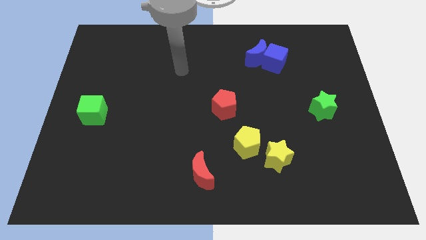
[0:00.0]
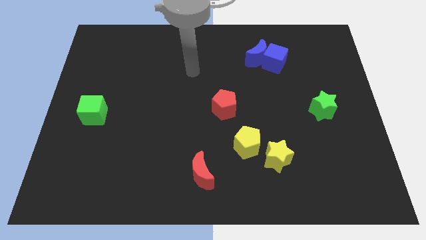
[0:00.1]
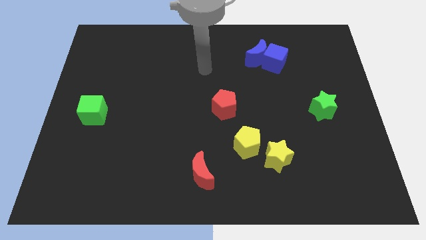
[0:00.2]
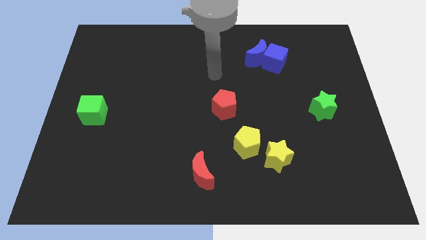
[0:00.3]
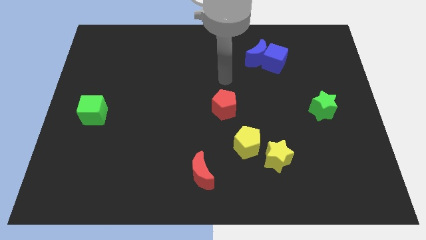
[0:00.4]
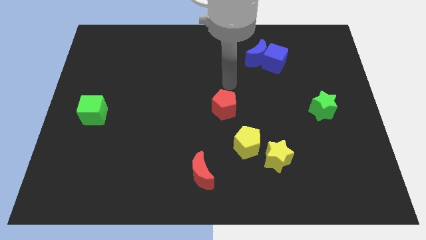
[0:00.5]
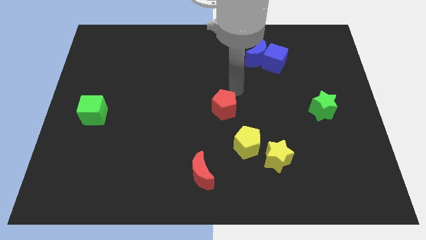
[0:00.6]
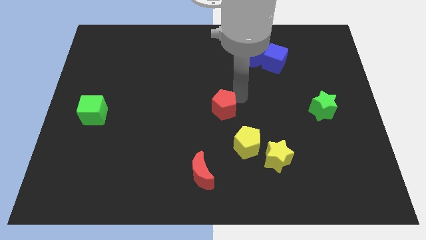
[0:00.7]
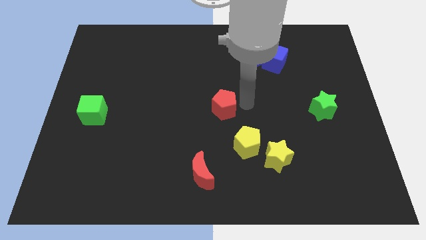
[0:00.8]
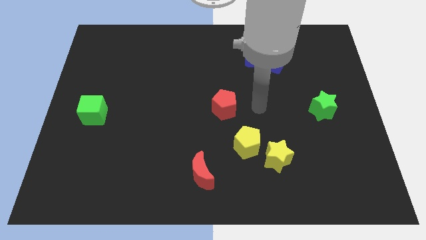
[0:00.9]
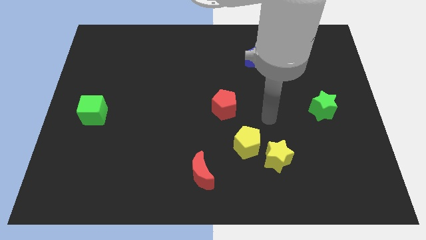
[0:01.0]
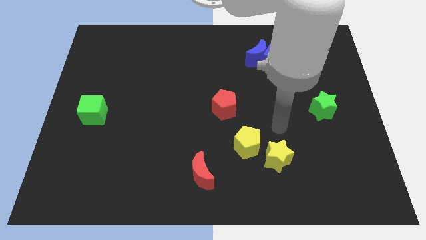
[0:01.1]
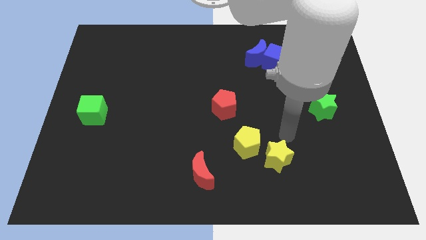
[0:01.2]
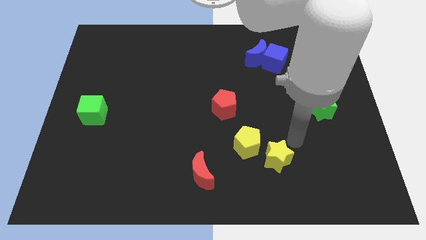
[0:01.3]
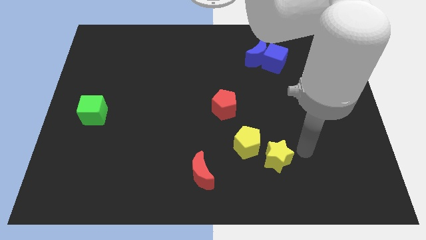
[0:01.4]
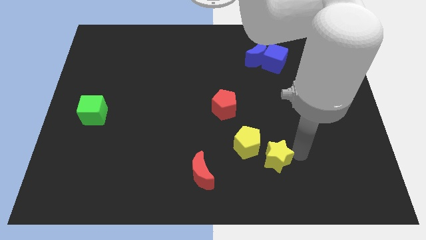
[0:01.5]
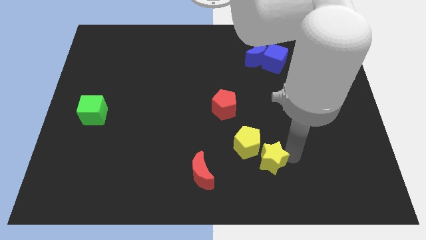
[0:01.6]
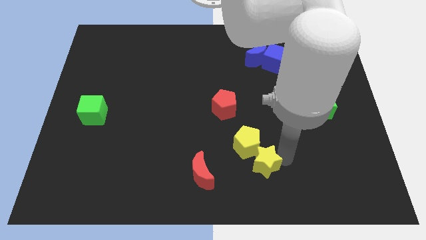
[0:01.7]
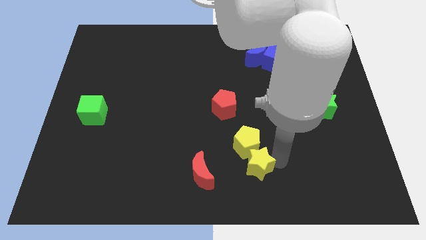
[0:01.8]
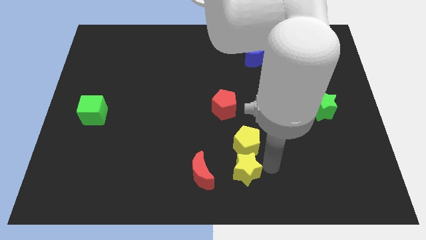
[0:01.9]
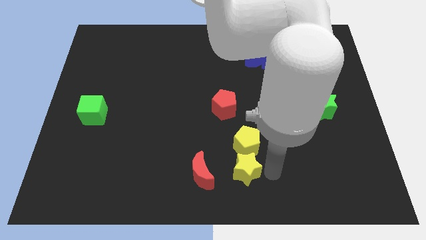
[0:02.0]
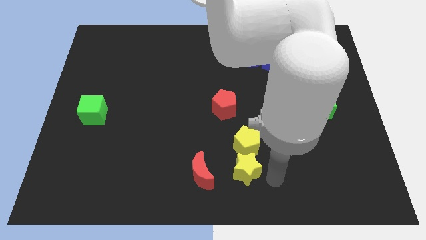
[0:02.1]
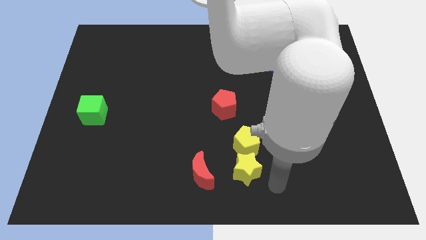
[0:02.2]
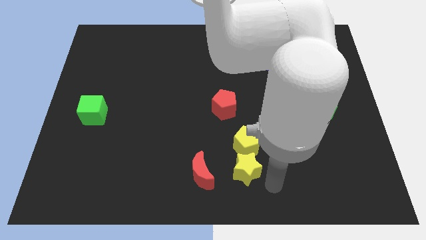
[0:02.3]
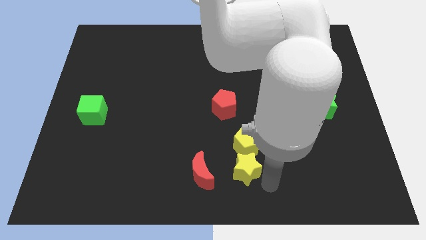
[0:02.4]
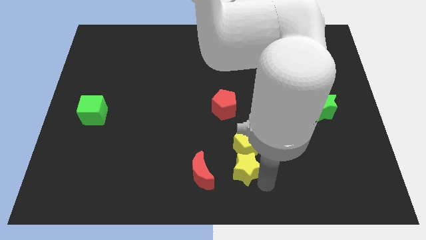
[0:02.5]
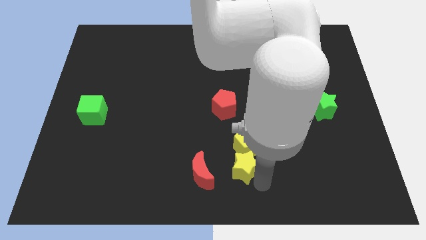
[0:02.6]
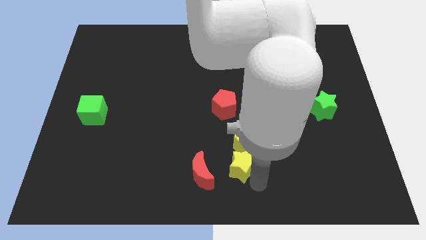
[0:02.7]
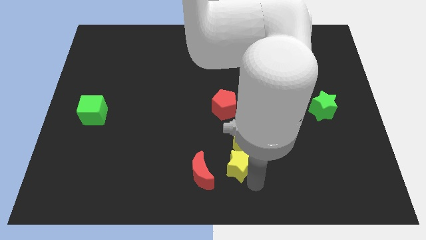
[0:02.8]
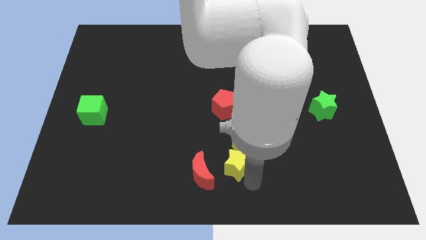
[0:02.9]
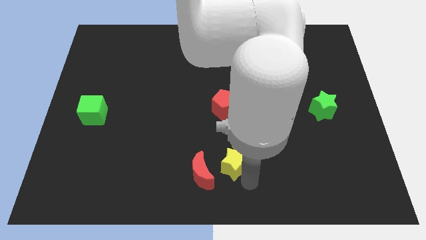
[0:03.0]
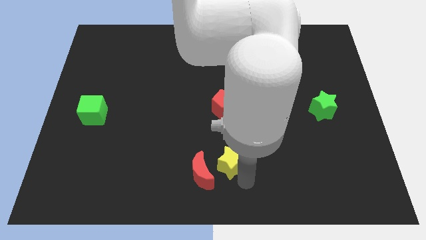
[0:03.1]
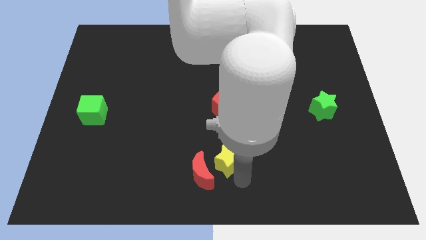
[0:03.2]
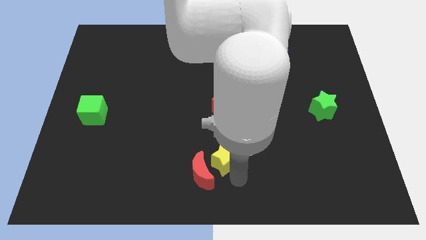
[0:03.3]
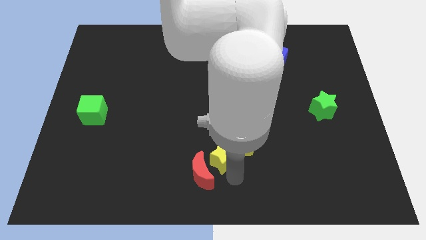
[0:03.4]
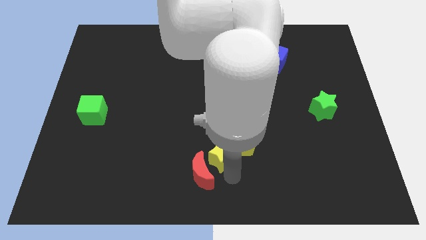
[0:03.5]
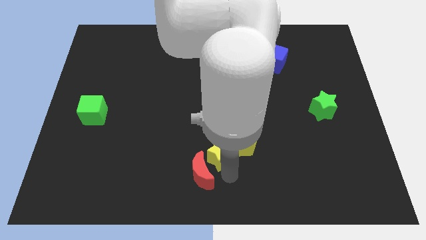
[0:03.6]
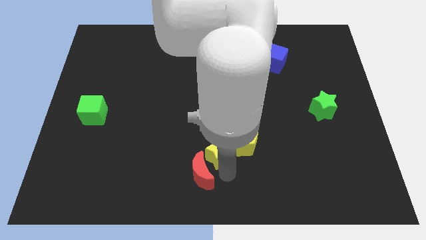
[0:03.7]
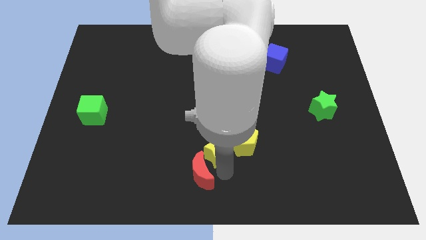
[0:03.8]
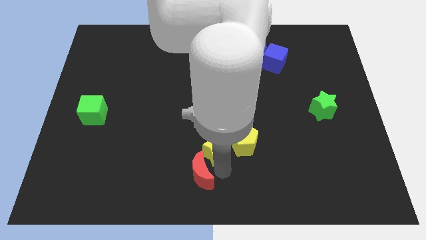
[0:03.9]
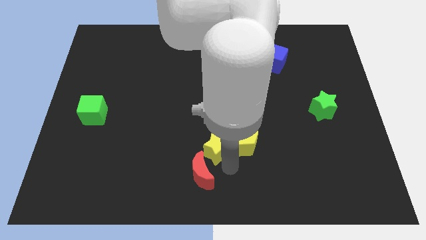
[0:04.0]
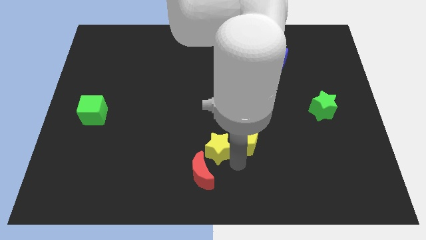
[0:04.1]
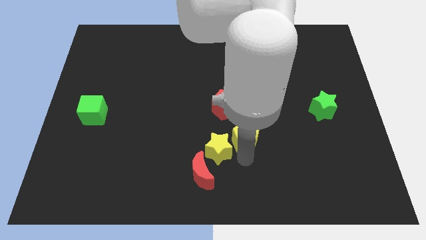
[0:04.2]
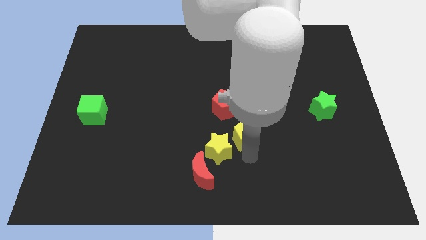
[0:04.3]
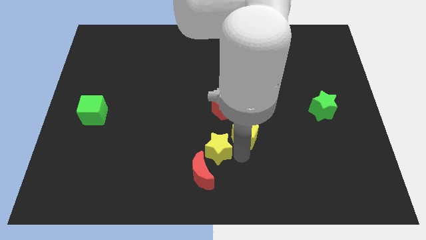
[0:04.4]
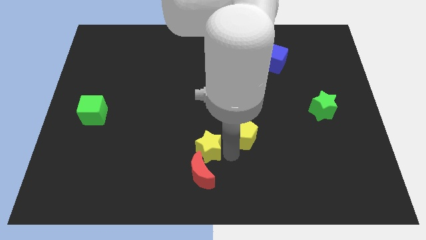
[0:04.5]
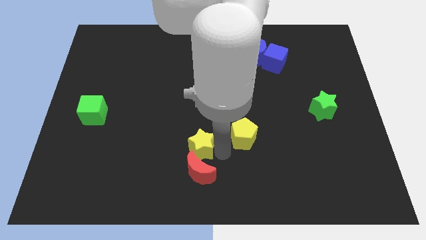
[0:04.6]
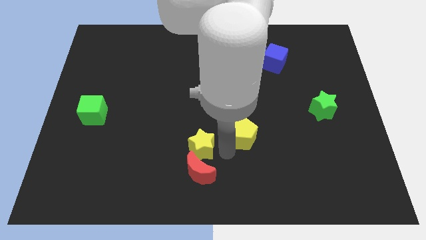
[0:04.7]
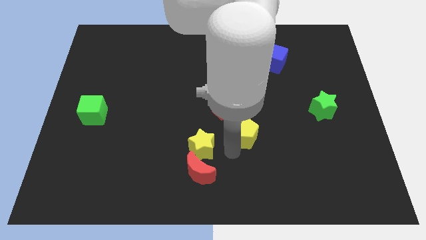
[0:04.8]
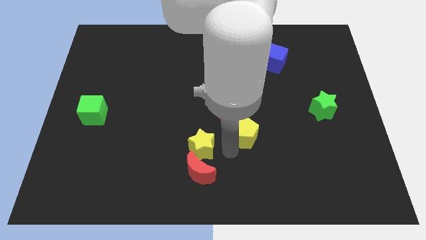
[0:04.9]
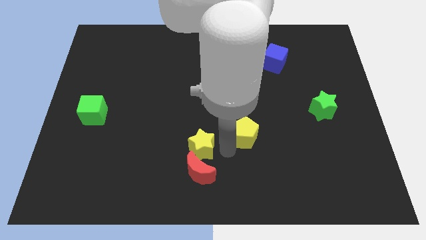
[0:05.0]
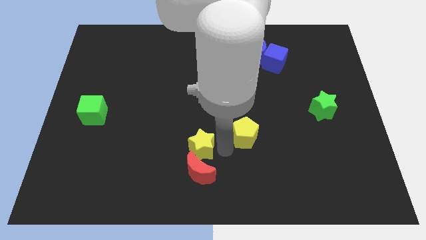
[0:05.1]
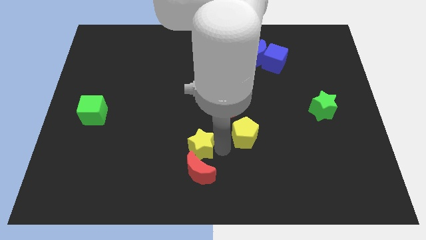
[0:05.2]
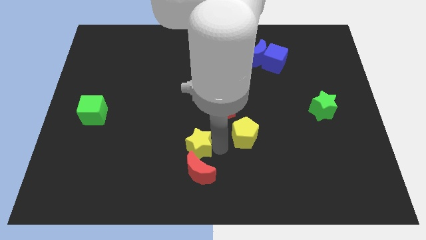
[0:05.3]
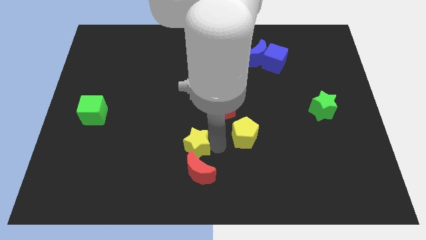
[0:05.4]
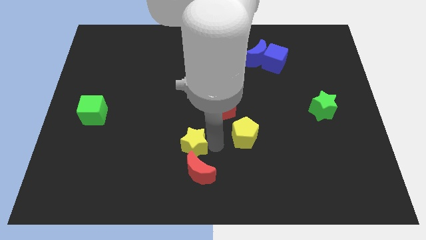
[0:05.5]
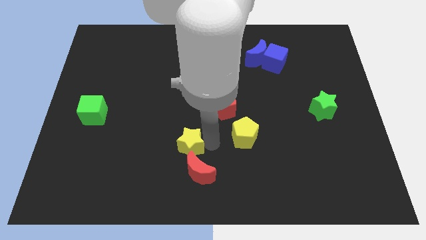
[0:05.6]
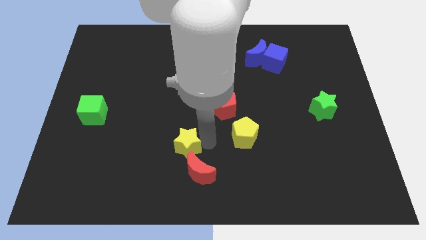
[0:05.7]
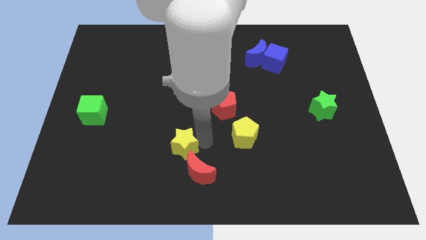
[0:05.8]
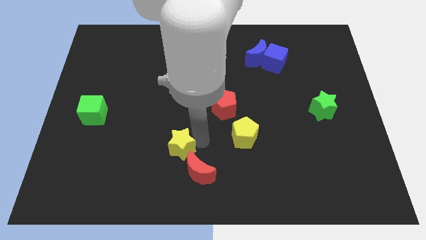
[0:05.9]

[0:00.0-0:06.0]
move the yellow star to the left

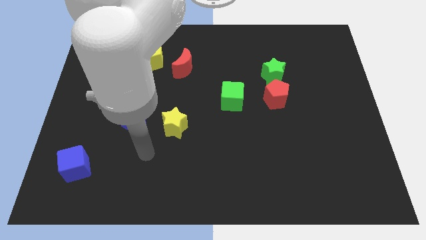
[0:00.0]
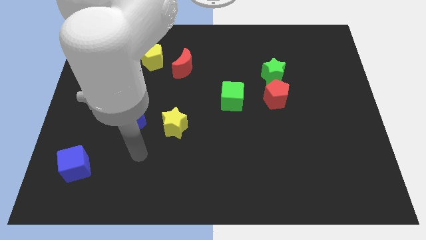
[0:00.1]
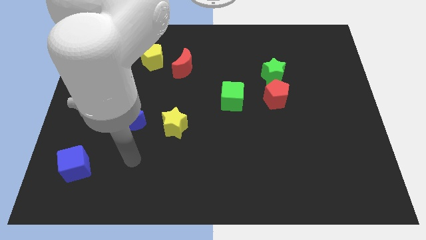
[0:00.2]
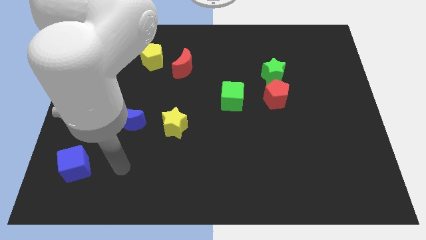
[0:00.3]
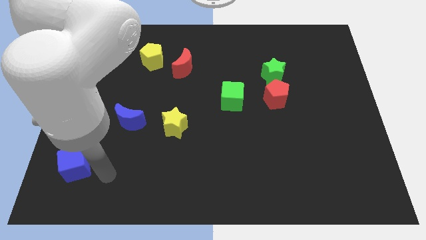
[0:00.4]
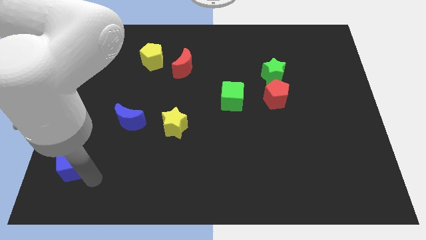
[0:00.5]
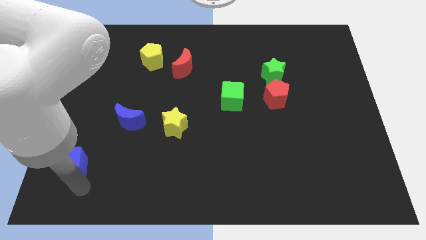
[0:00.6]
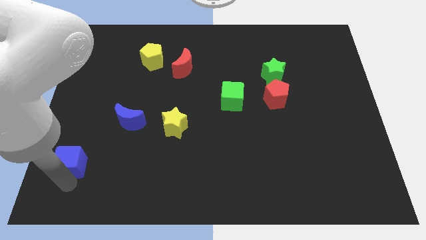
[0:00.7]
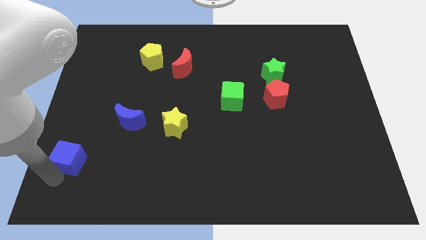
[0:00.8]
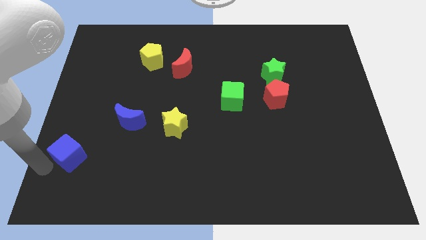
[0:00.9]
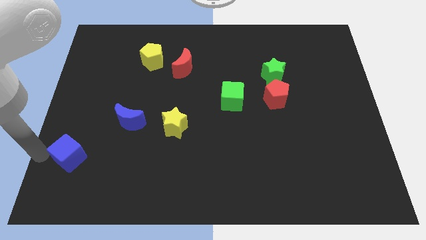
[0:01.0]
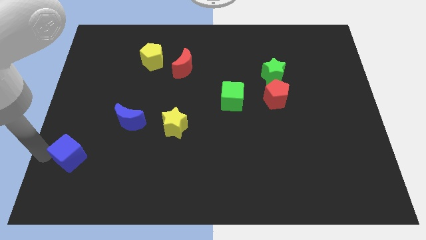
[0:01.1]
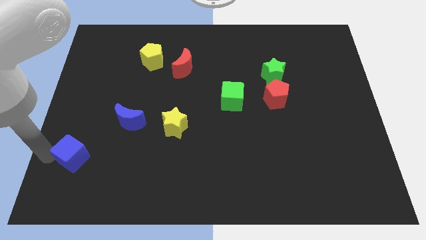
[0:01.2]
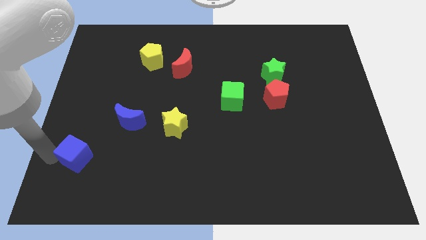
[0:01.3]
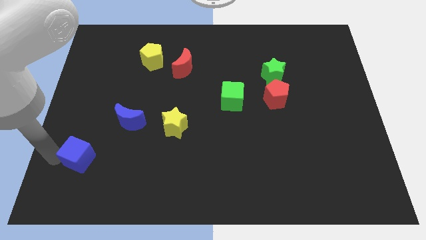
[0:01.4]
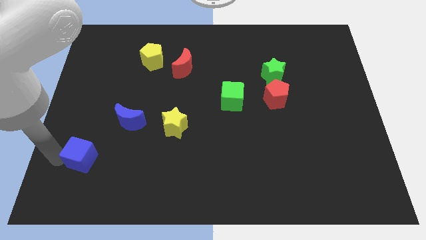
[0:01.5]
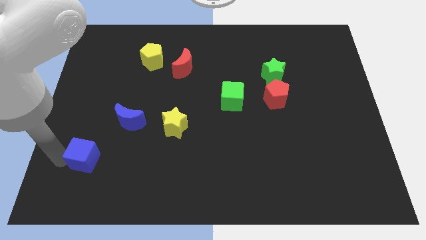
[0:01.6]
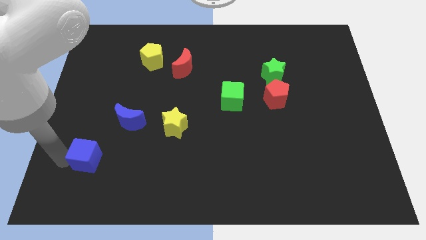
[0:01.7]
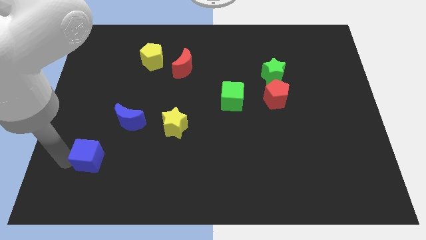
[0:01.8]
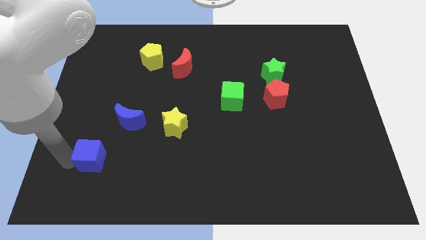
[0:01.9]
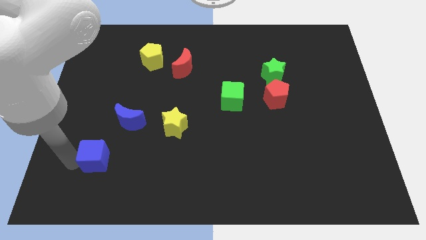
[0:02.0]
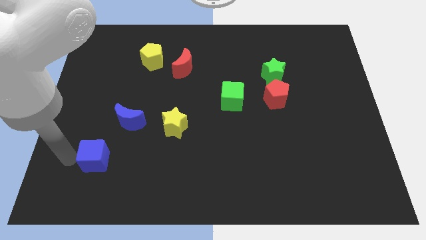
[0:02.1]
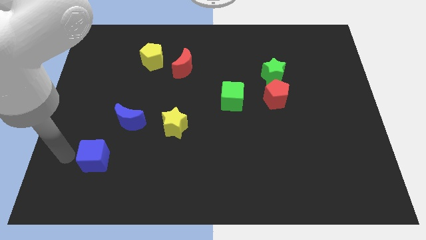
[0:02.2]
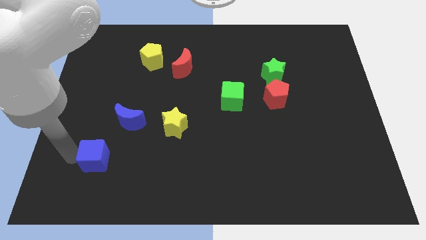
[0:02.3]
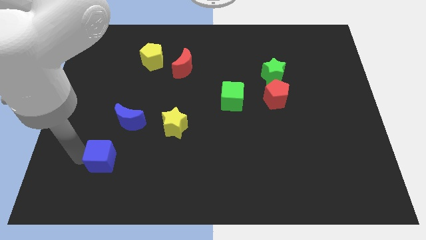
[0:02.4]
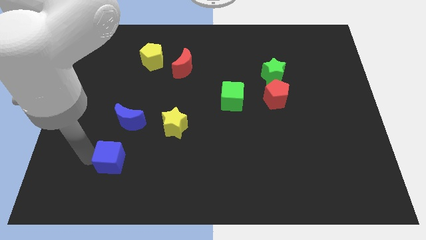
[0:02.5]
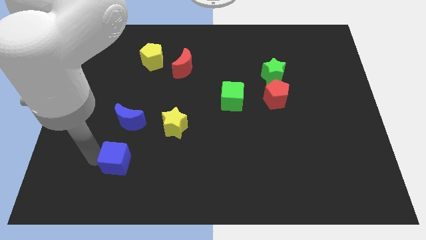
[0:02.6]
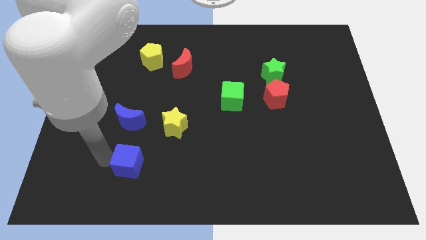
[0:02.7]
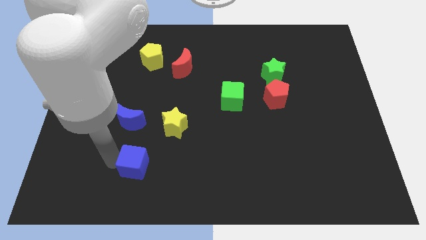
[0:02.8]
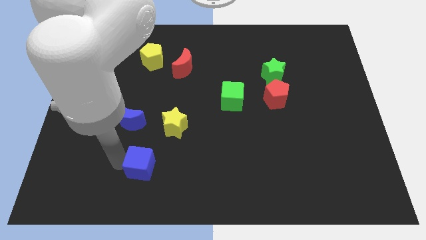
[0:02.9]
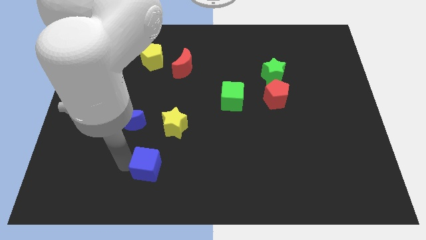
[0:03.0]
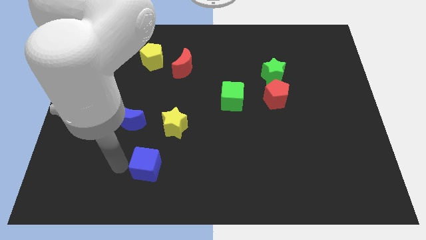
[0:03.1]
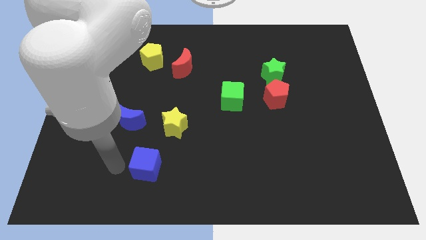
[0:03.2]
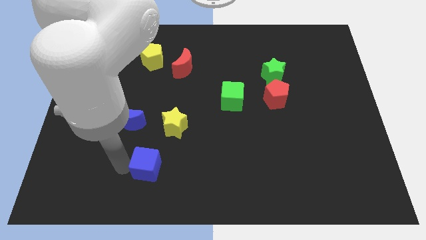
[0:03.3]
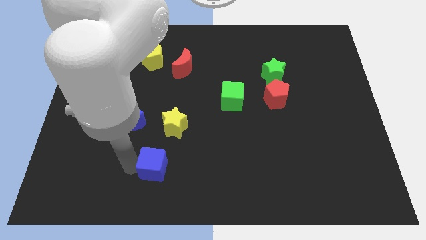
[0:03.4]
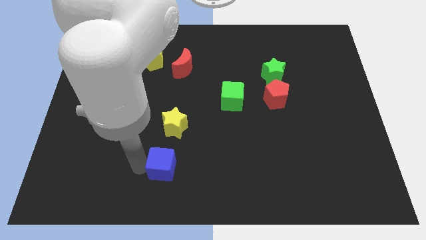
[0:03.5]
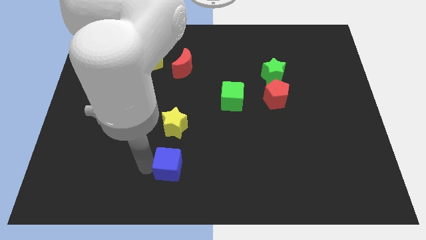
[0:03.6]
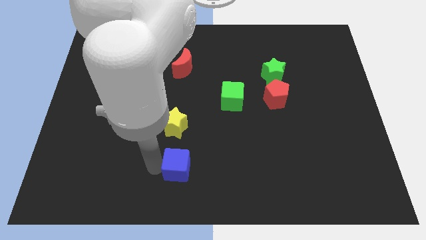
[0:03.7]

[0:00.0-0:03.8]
push the blue cube to the right
